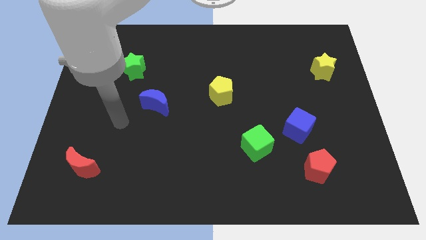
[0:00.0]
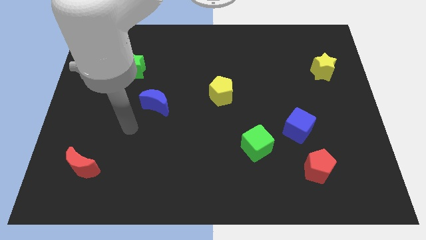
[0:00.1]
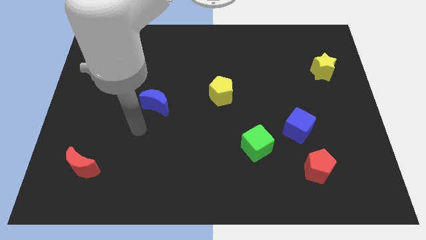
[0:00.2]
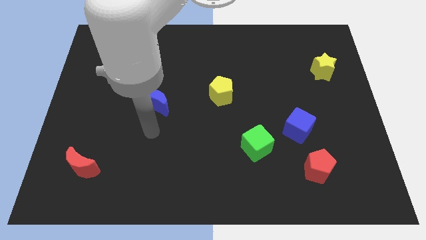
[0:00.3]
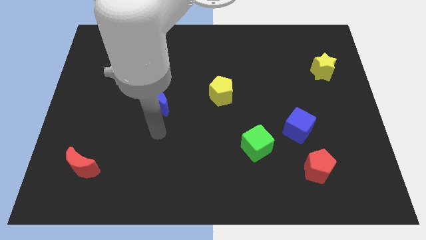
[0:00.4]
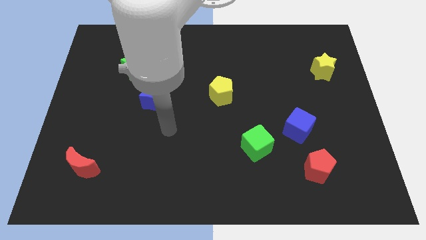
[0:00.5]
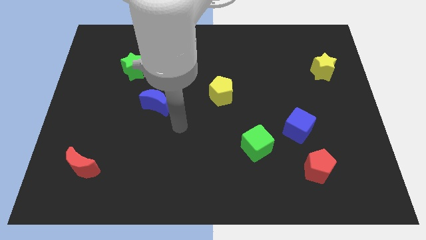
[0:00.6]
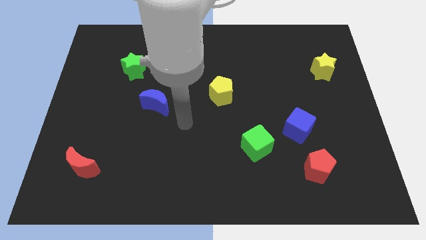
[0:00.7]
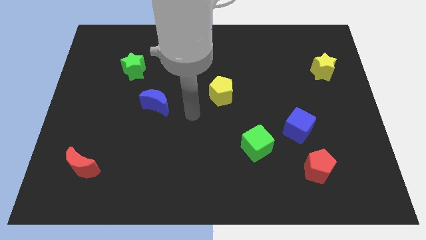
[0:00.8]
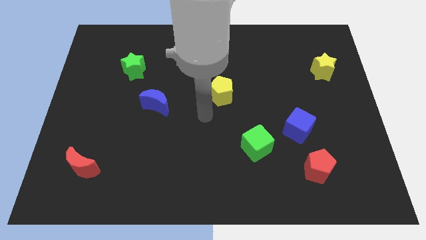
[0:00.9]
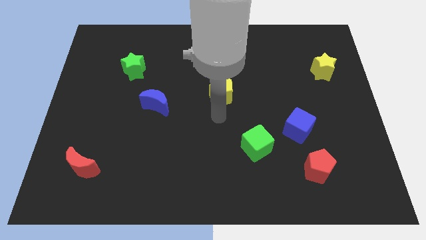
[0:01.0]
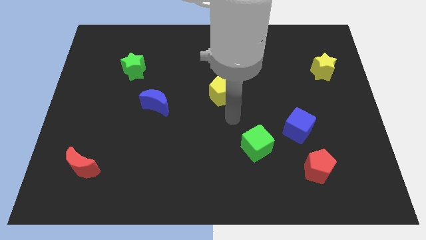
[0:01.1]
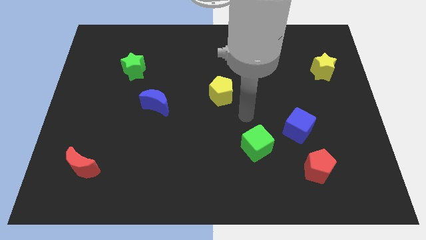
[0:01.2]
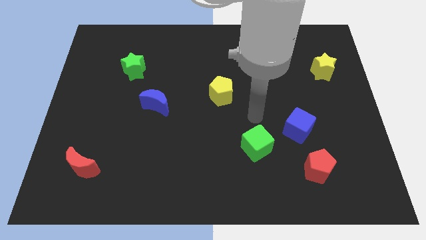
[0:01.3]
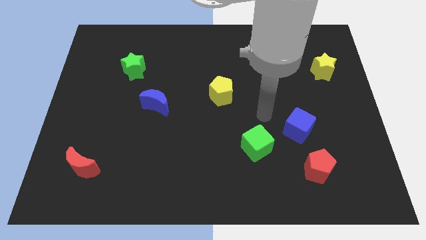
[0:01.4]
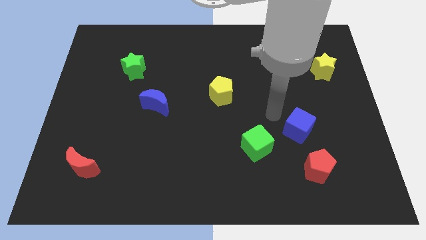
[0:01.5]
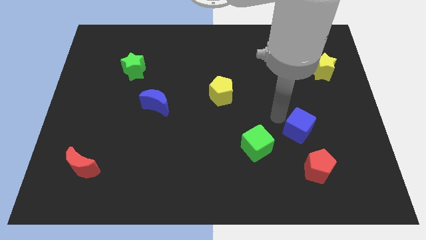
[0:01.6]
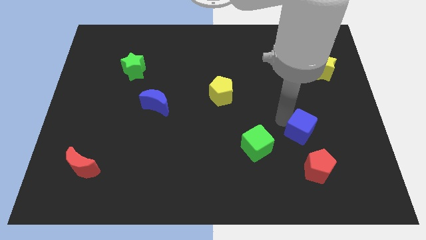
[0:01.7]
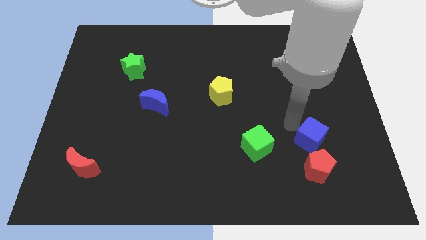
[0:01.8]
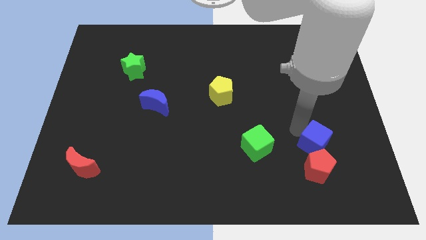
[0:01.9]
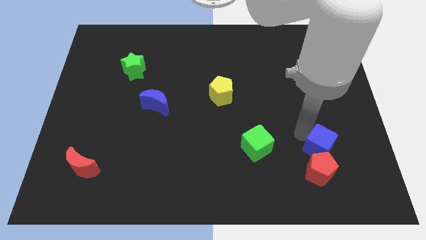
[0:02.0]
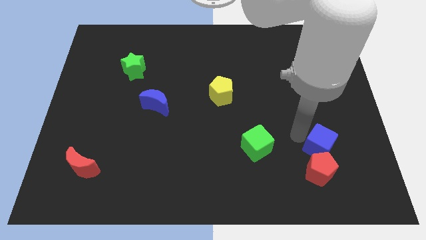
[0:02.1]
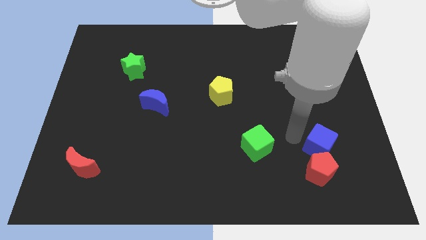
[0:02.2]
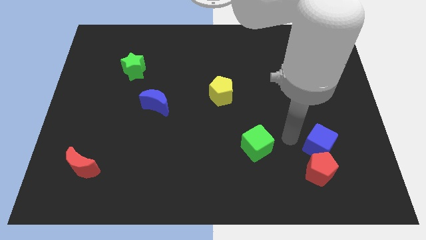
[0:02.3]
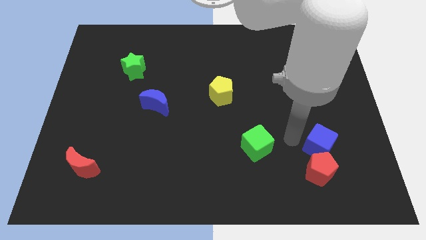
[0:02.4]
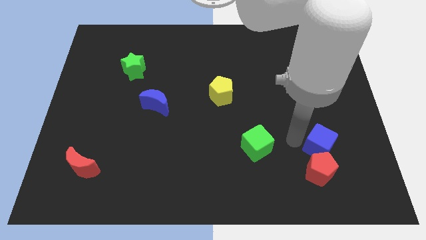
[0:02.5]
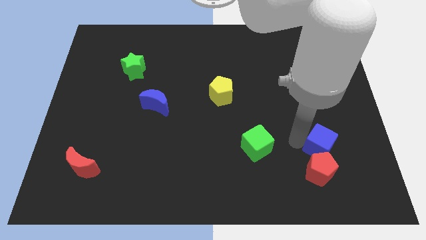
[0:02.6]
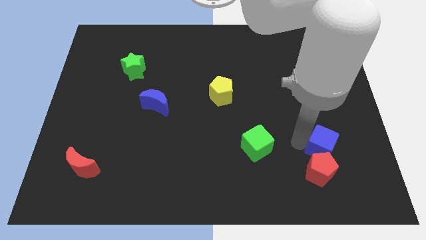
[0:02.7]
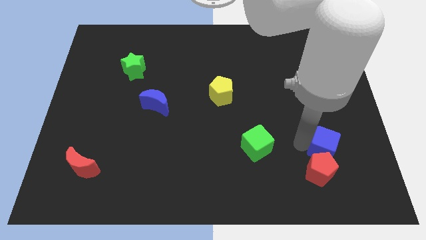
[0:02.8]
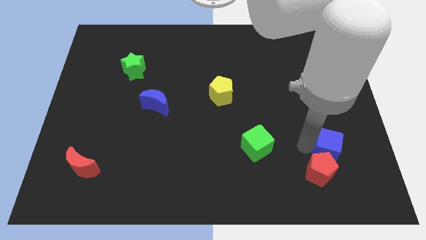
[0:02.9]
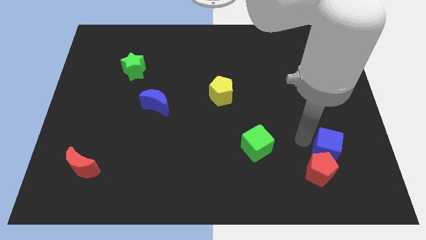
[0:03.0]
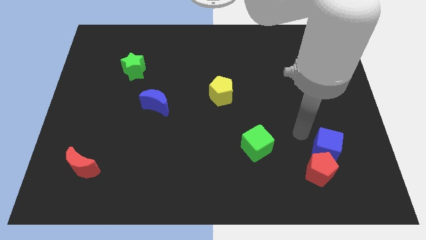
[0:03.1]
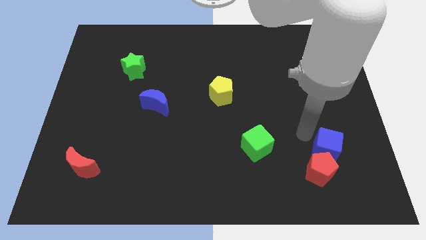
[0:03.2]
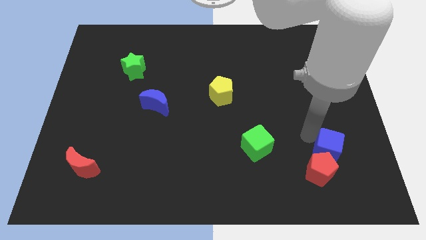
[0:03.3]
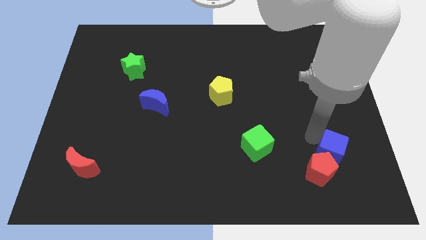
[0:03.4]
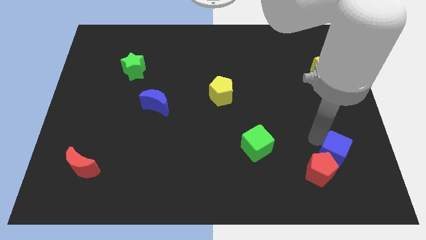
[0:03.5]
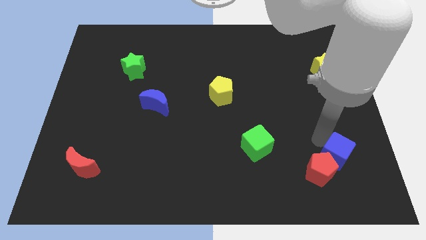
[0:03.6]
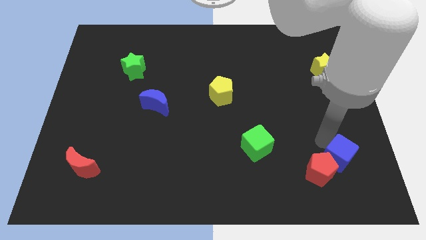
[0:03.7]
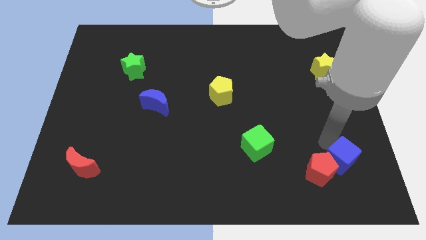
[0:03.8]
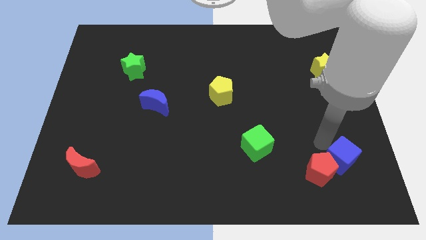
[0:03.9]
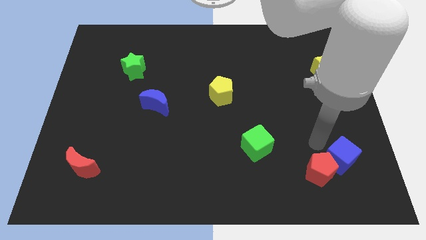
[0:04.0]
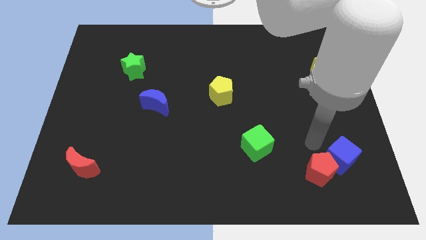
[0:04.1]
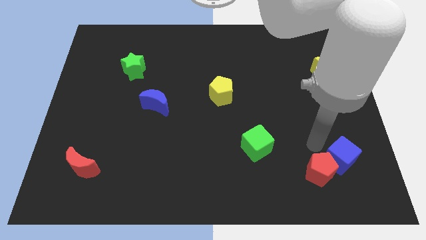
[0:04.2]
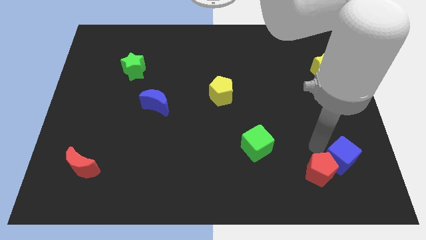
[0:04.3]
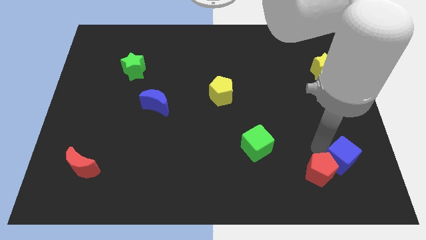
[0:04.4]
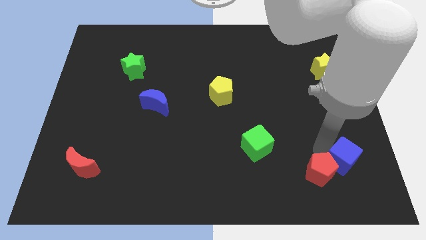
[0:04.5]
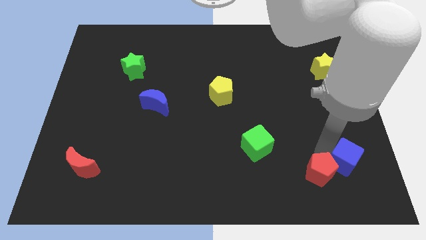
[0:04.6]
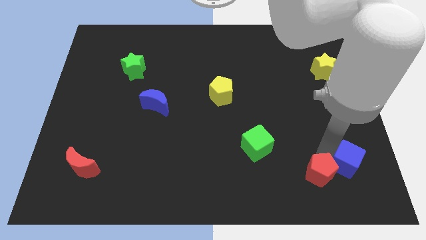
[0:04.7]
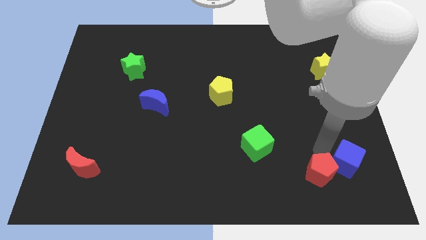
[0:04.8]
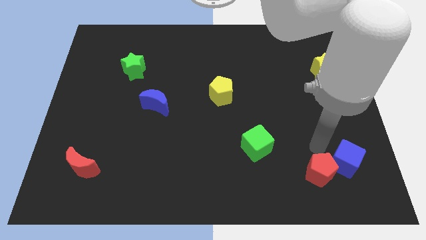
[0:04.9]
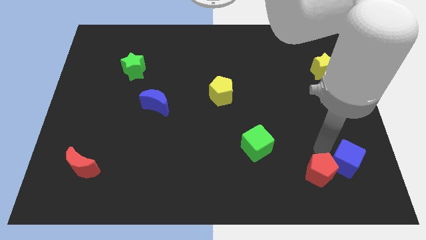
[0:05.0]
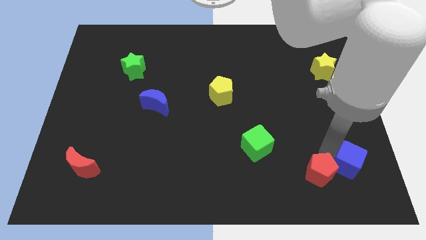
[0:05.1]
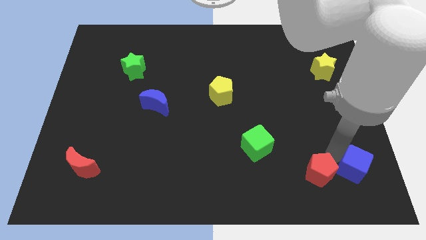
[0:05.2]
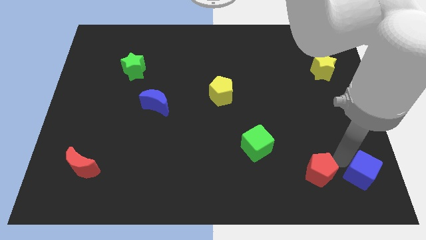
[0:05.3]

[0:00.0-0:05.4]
push the blue cube to the bottom right

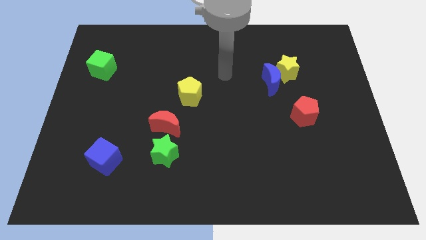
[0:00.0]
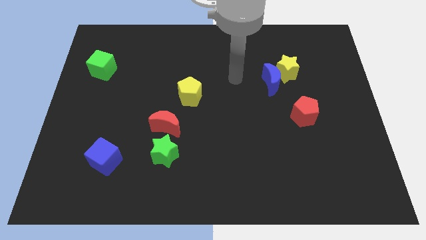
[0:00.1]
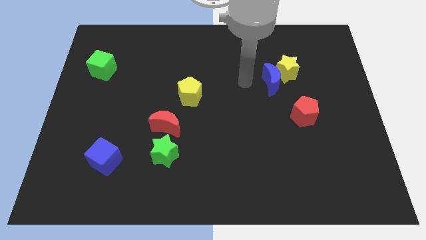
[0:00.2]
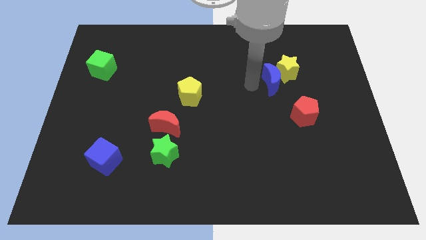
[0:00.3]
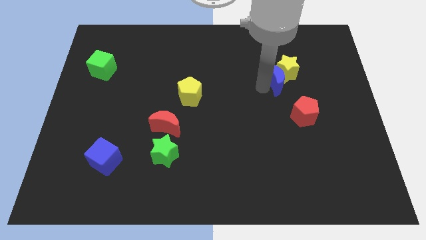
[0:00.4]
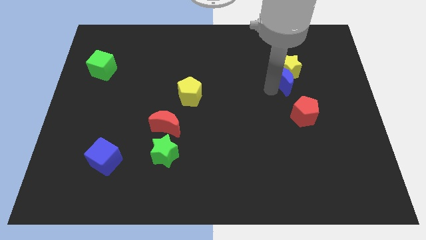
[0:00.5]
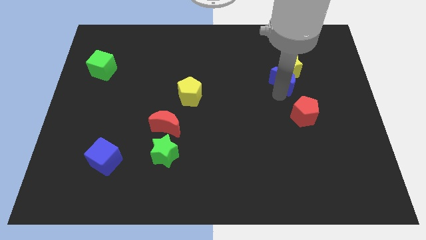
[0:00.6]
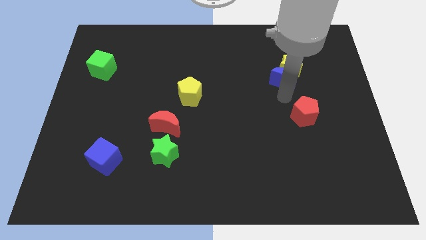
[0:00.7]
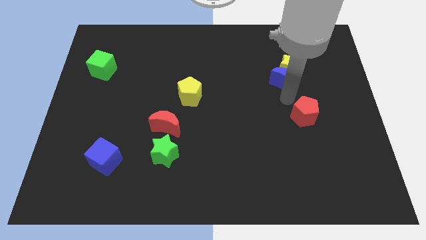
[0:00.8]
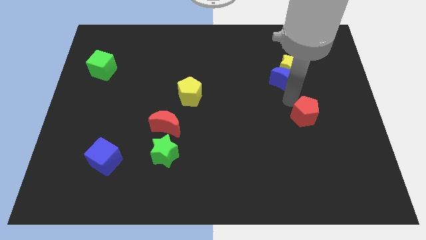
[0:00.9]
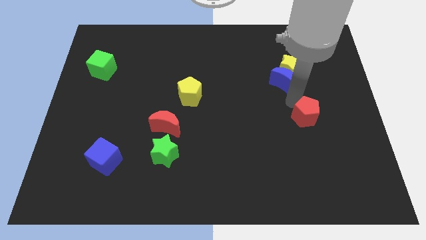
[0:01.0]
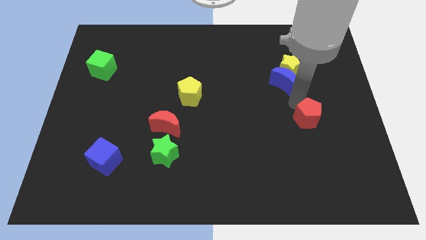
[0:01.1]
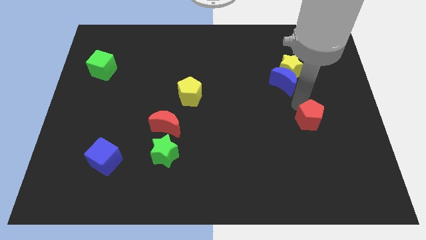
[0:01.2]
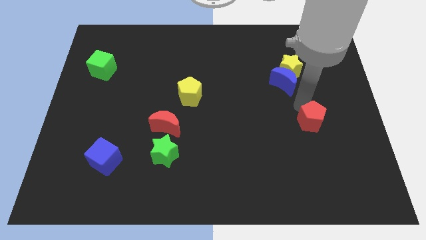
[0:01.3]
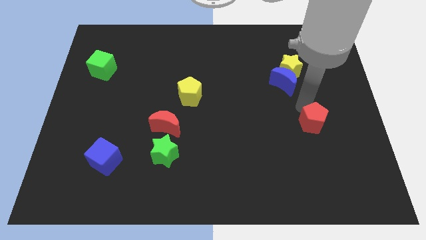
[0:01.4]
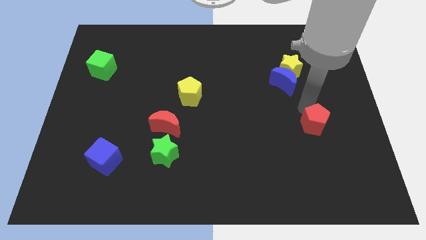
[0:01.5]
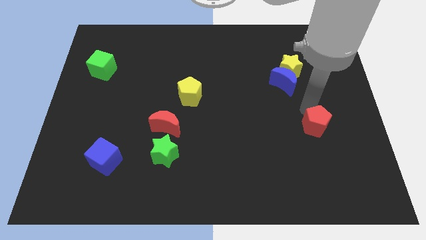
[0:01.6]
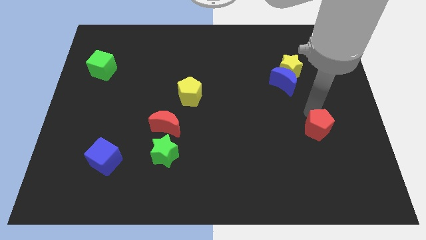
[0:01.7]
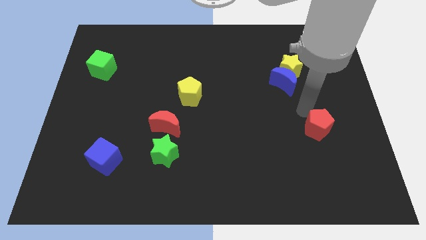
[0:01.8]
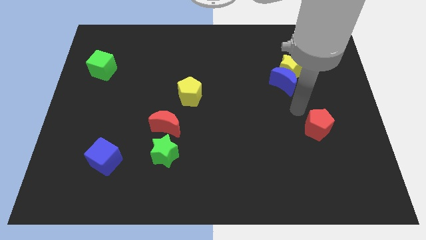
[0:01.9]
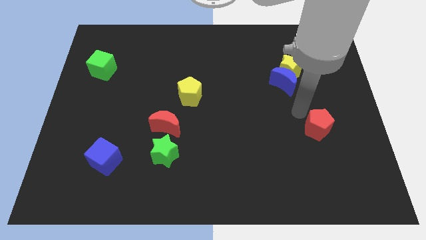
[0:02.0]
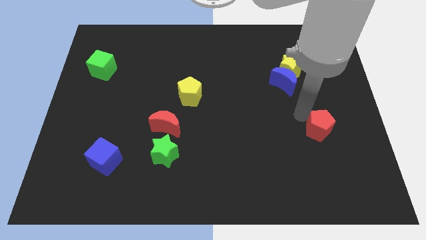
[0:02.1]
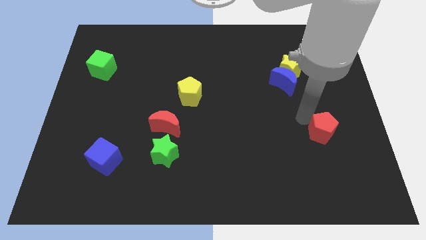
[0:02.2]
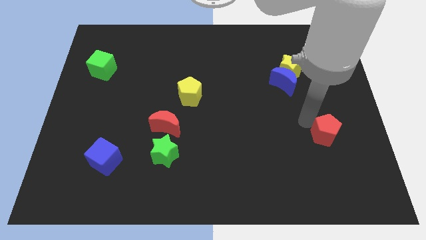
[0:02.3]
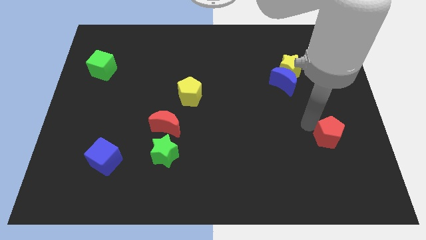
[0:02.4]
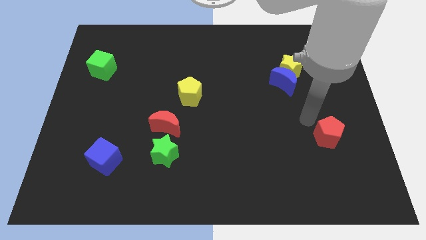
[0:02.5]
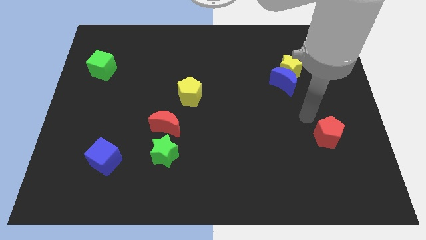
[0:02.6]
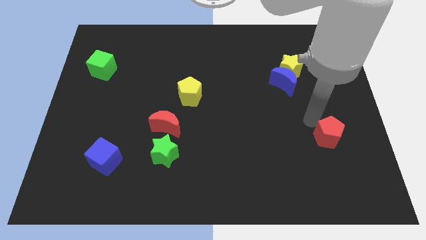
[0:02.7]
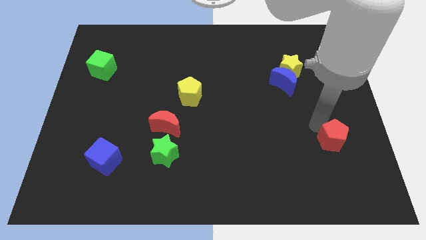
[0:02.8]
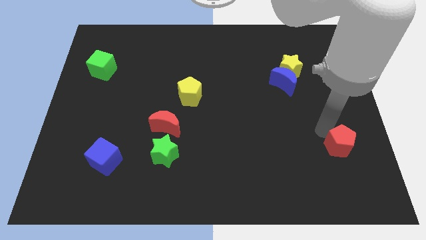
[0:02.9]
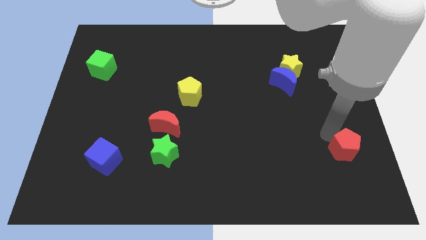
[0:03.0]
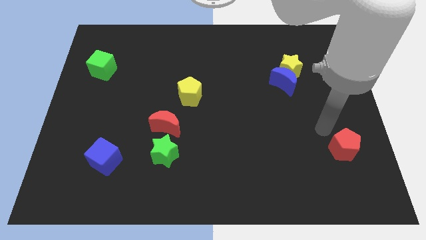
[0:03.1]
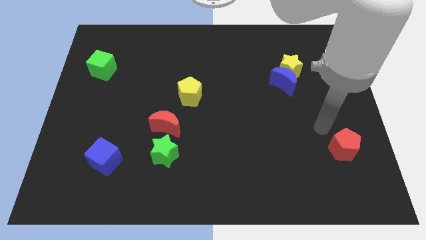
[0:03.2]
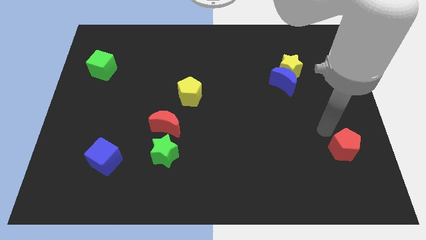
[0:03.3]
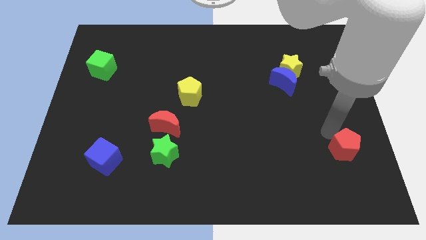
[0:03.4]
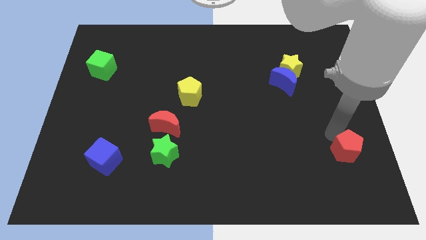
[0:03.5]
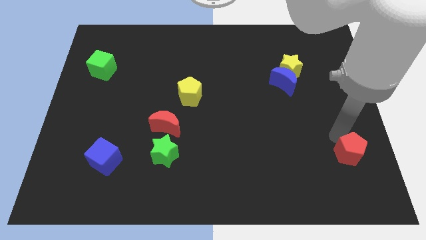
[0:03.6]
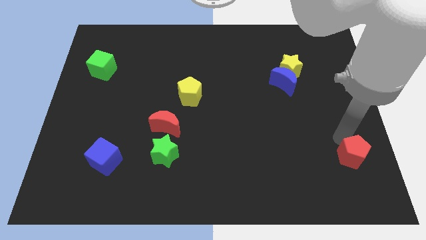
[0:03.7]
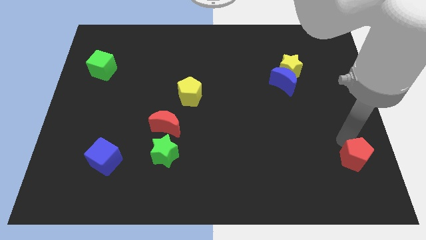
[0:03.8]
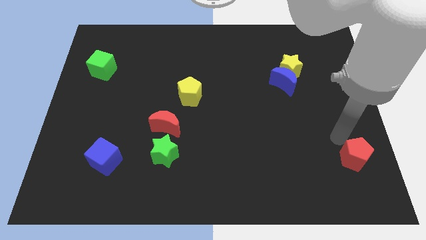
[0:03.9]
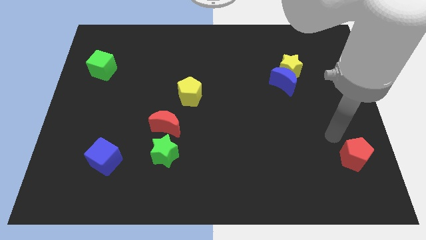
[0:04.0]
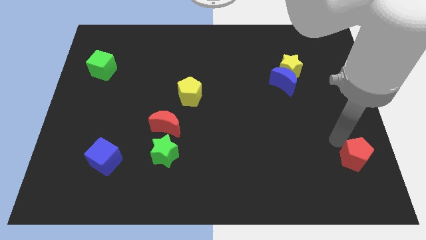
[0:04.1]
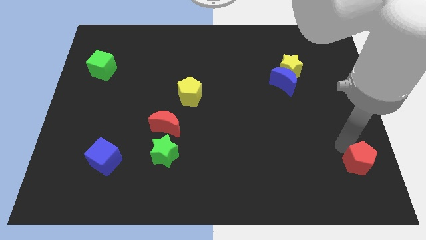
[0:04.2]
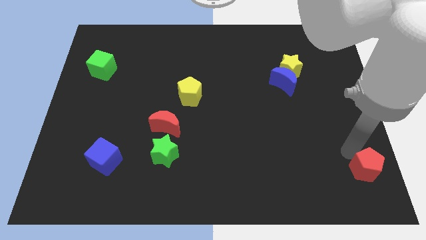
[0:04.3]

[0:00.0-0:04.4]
put the red pentagon to the lower right corner
